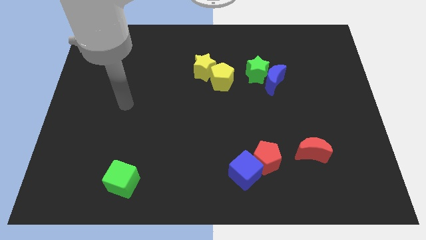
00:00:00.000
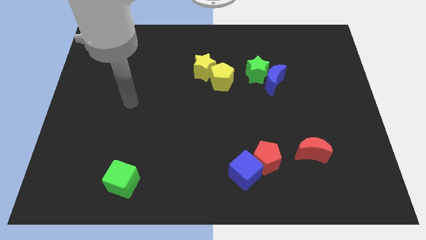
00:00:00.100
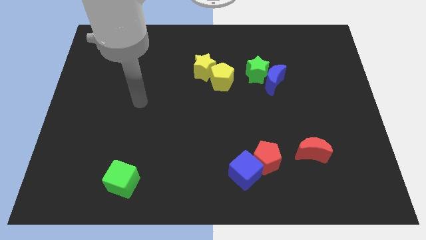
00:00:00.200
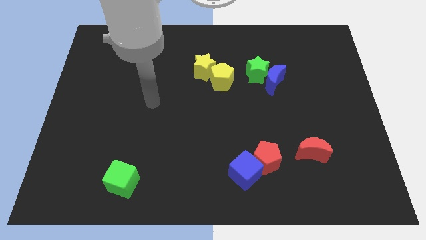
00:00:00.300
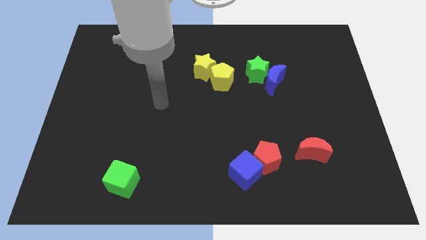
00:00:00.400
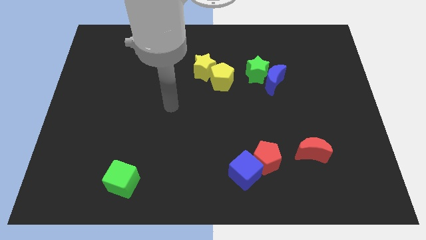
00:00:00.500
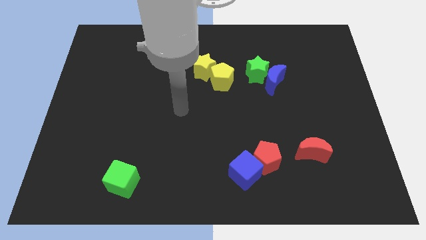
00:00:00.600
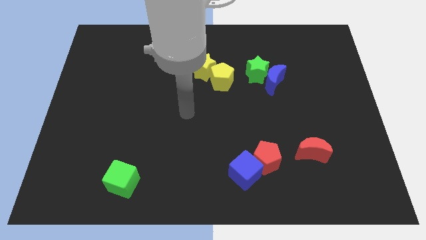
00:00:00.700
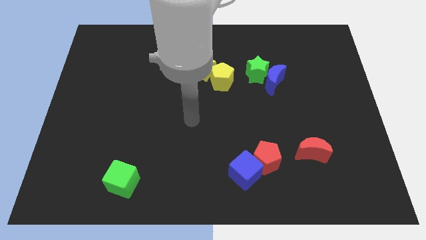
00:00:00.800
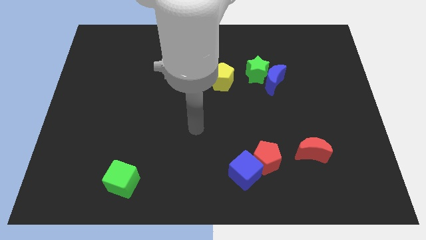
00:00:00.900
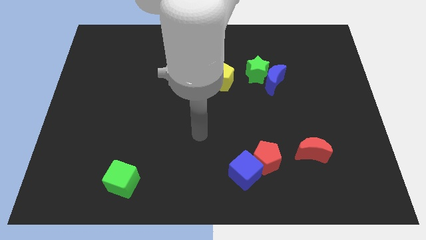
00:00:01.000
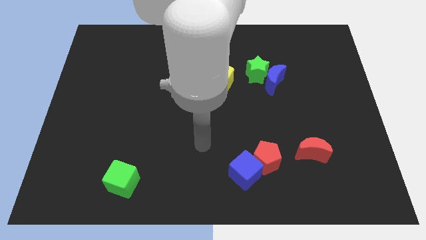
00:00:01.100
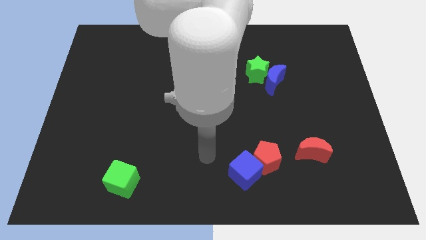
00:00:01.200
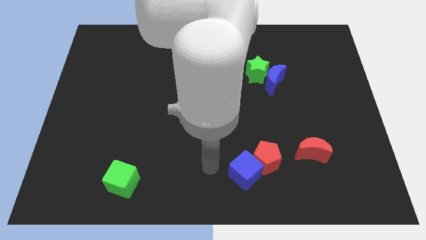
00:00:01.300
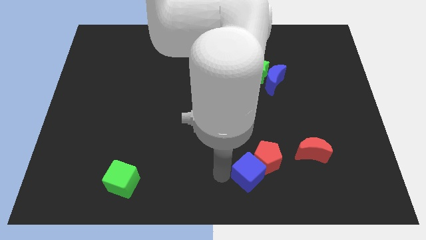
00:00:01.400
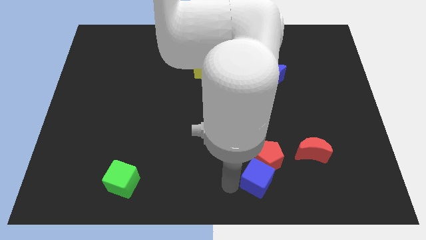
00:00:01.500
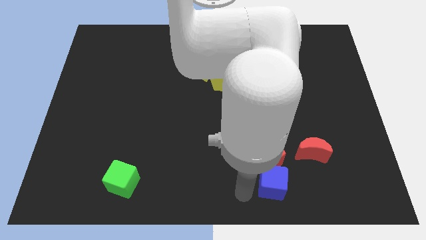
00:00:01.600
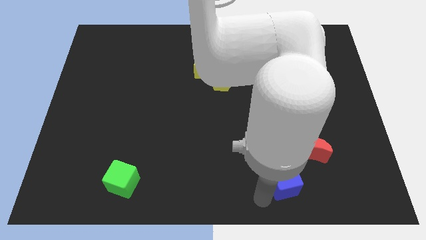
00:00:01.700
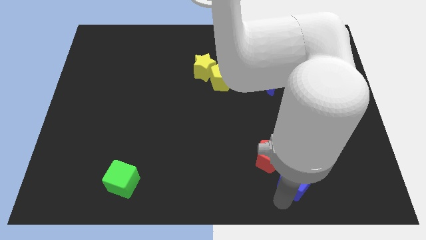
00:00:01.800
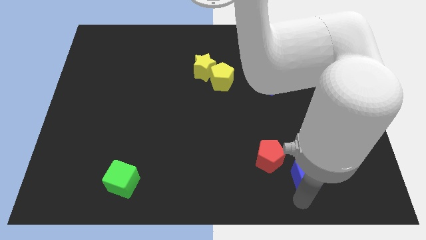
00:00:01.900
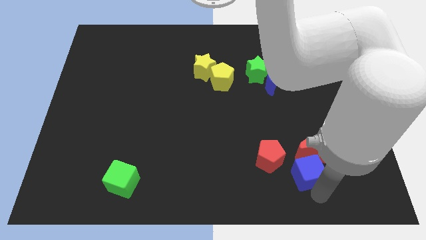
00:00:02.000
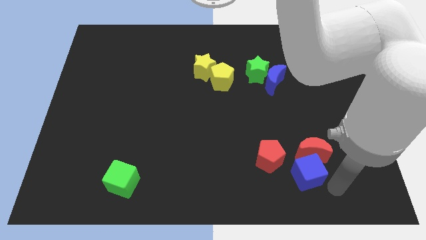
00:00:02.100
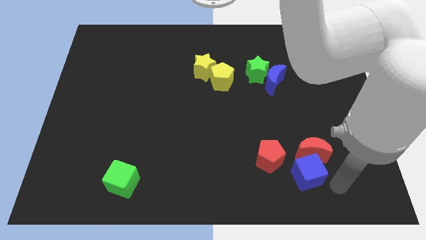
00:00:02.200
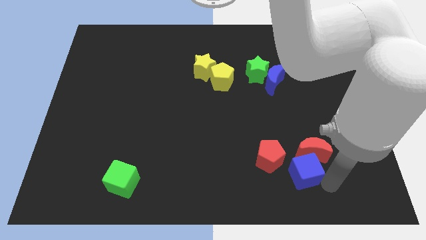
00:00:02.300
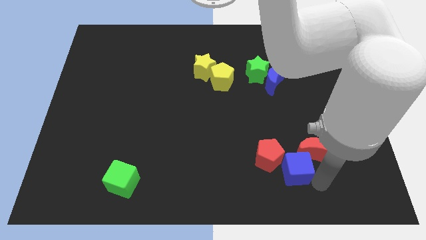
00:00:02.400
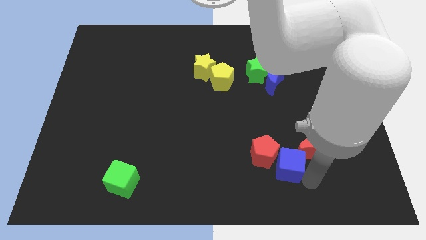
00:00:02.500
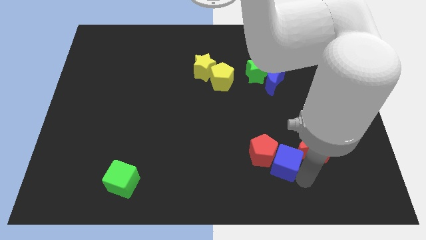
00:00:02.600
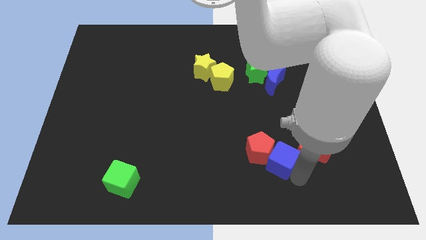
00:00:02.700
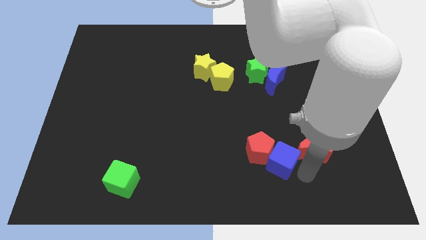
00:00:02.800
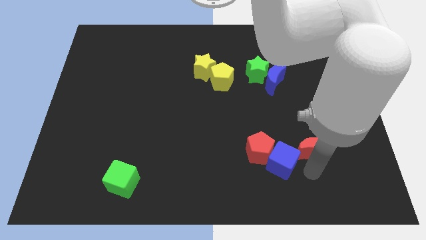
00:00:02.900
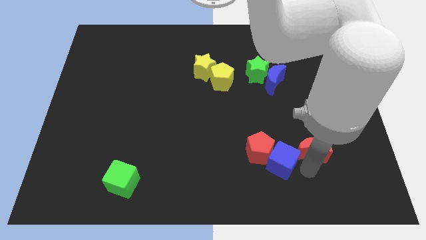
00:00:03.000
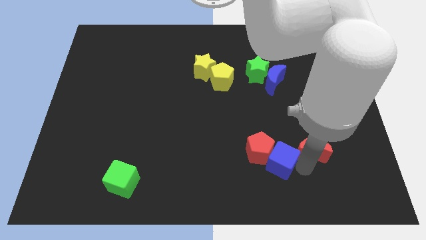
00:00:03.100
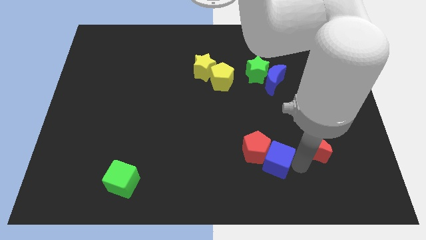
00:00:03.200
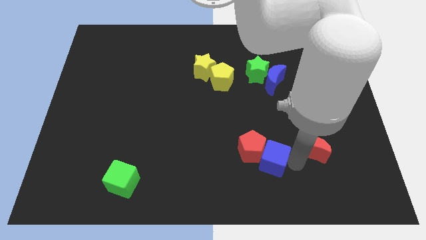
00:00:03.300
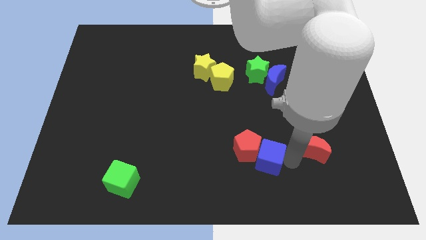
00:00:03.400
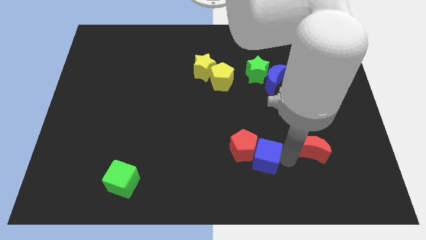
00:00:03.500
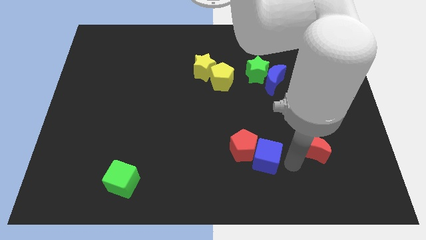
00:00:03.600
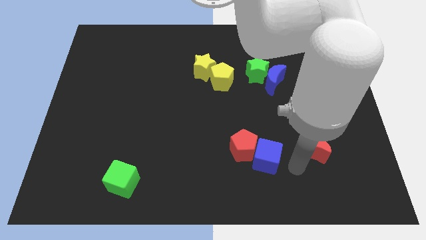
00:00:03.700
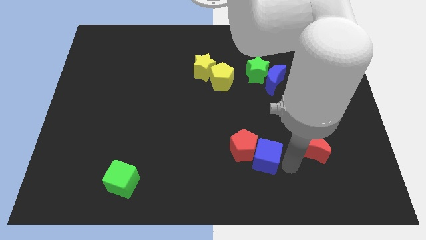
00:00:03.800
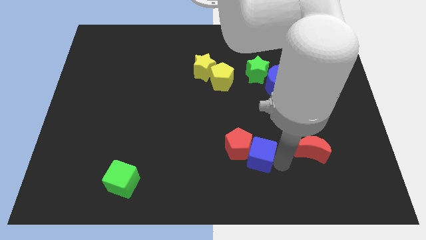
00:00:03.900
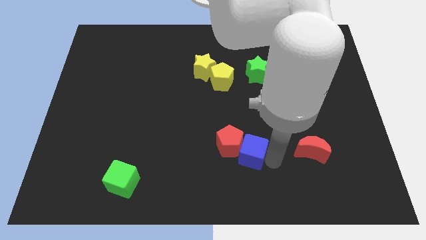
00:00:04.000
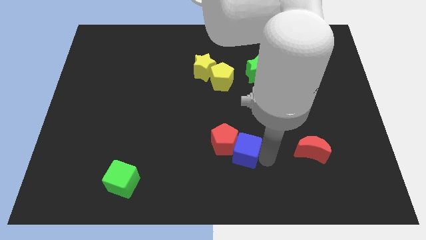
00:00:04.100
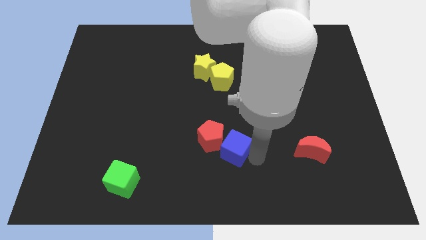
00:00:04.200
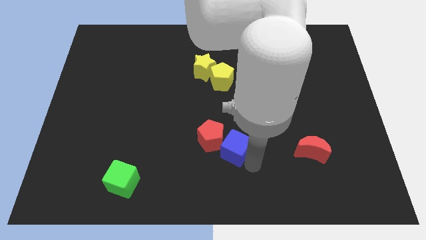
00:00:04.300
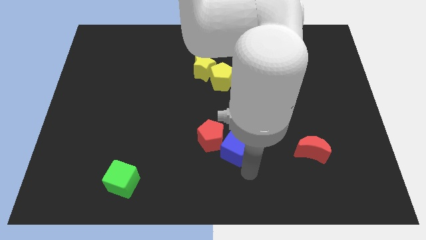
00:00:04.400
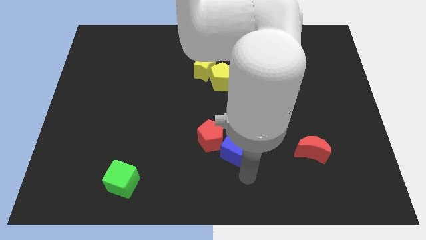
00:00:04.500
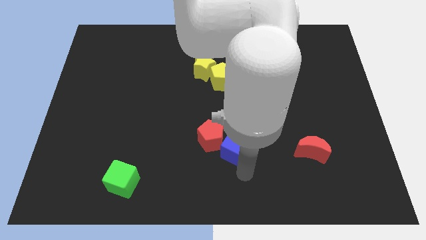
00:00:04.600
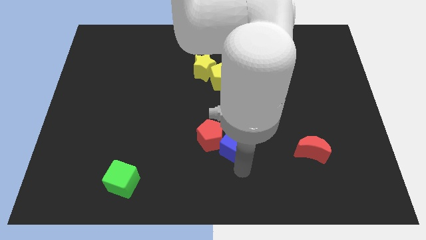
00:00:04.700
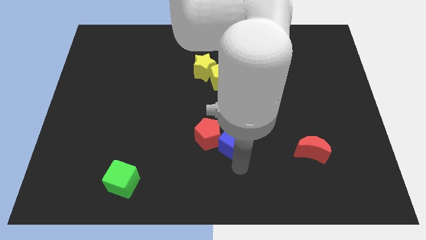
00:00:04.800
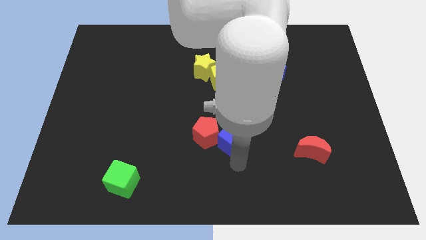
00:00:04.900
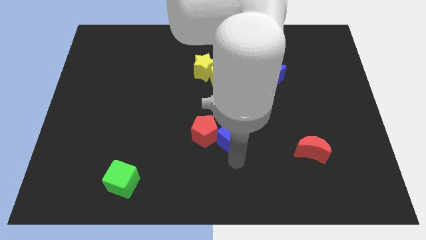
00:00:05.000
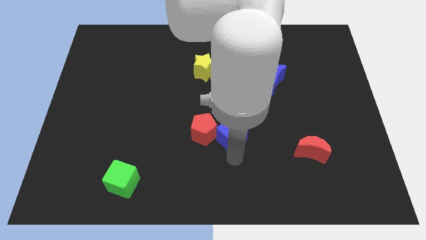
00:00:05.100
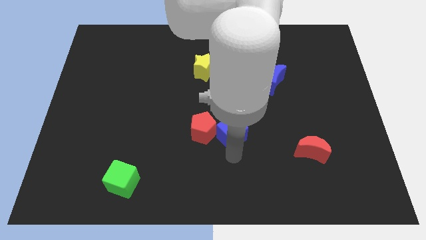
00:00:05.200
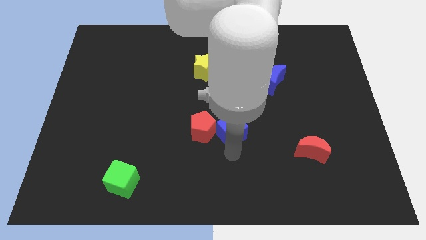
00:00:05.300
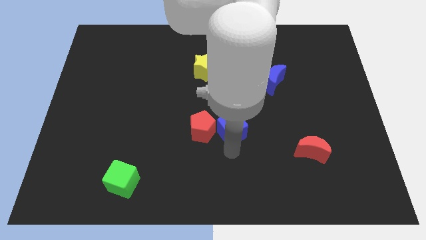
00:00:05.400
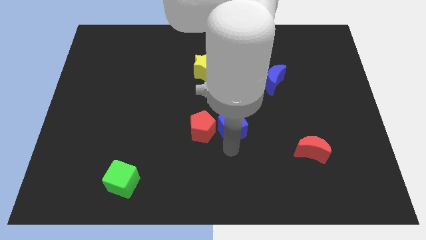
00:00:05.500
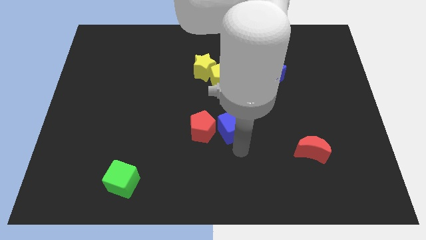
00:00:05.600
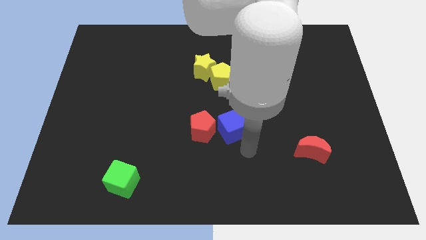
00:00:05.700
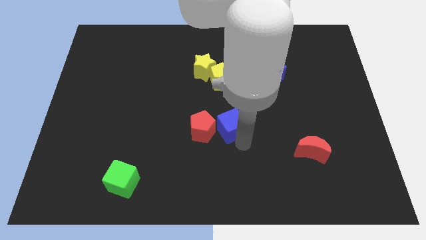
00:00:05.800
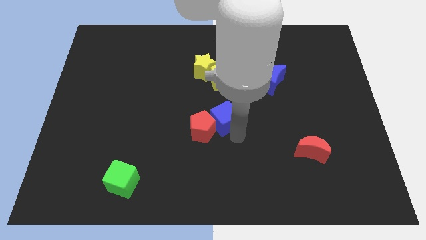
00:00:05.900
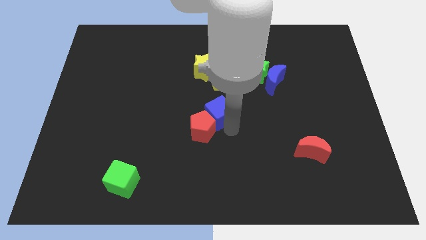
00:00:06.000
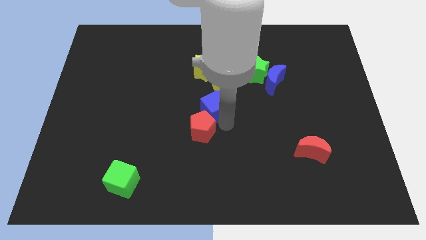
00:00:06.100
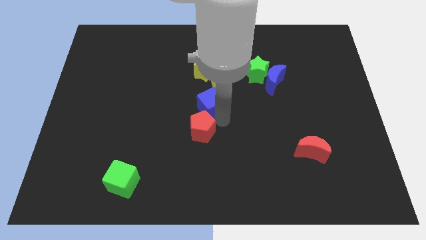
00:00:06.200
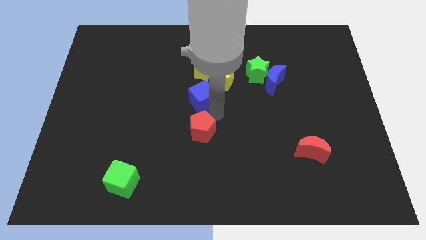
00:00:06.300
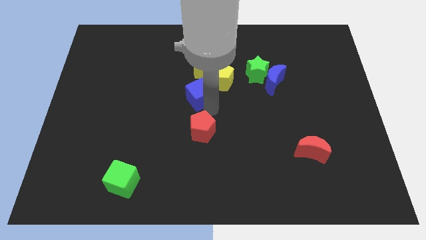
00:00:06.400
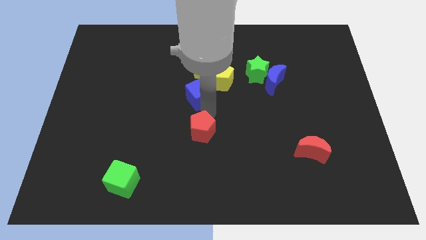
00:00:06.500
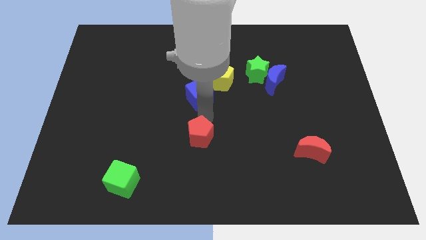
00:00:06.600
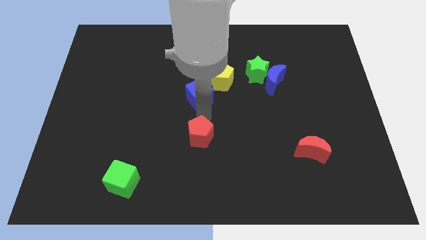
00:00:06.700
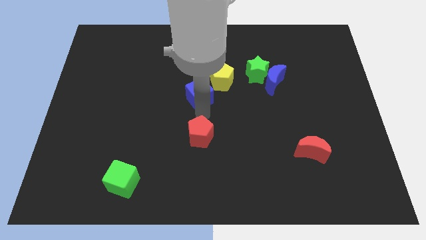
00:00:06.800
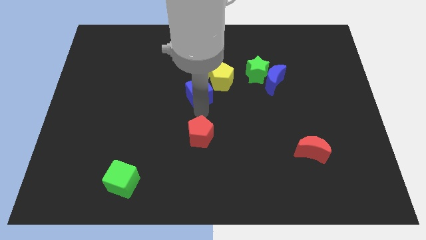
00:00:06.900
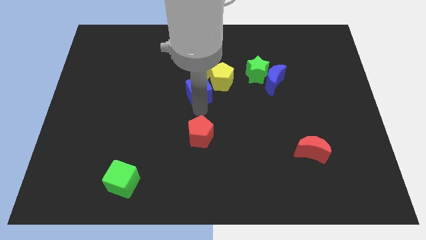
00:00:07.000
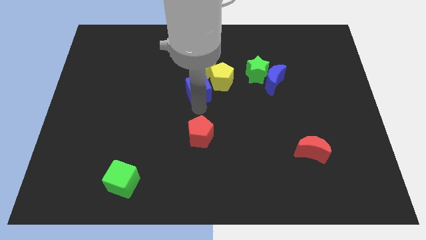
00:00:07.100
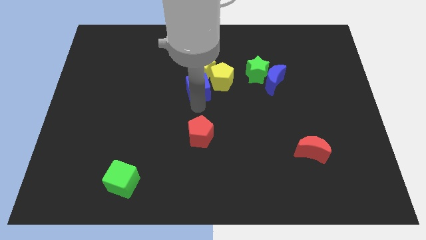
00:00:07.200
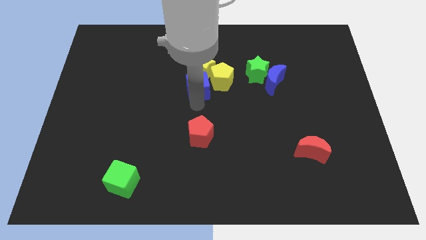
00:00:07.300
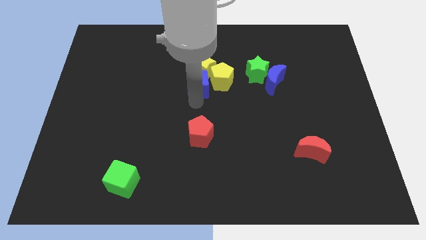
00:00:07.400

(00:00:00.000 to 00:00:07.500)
slide the blue cube towards the yellow star
